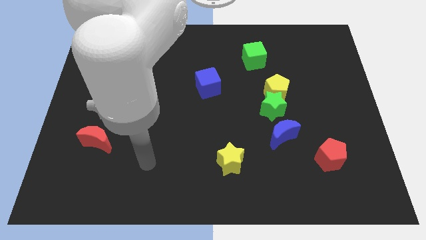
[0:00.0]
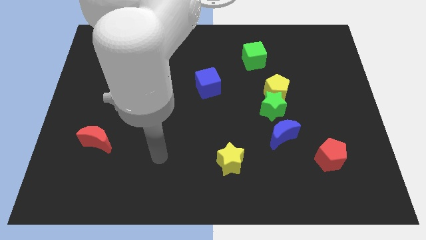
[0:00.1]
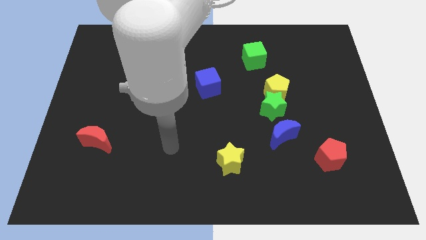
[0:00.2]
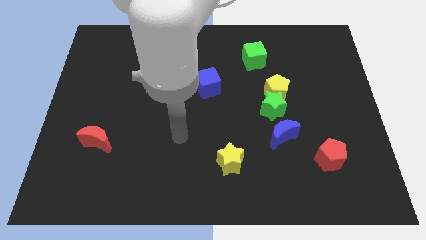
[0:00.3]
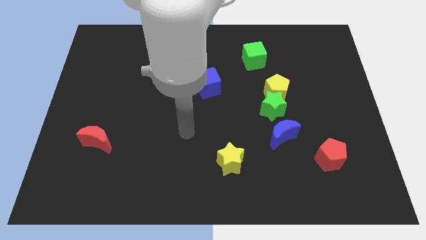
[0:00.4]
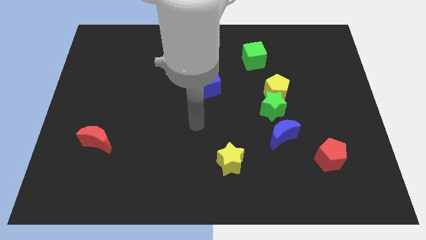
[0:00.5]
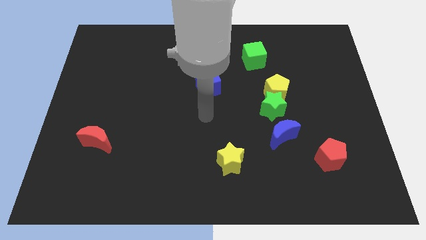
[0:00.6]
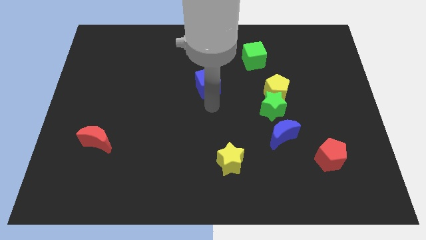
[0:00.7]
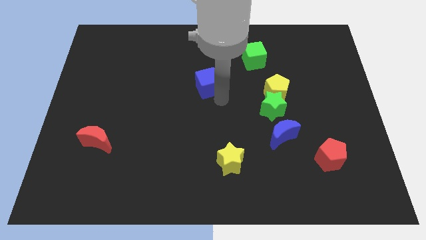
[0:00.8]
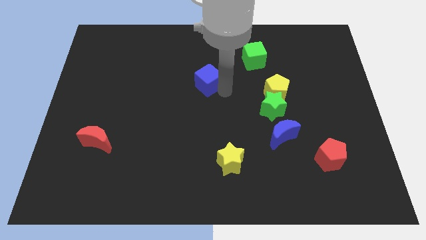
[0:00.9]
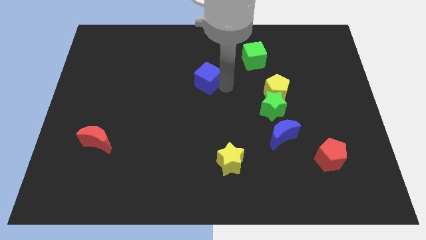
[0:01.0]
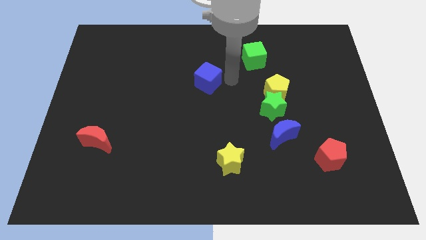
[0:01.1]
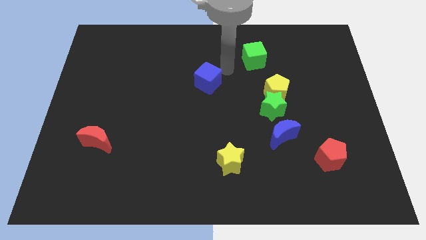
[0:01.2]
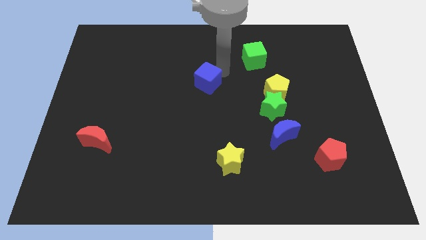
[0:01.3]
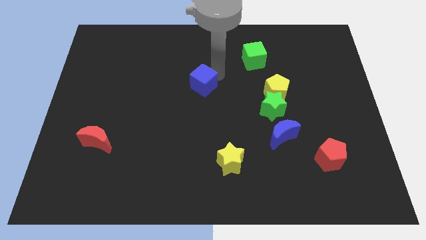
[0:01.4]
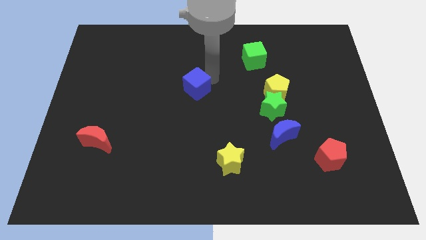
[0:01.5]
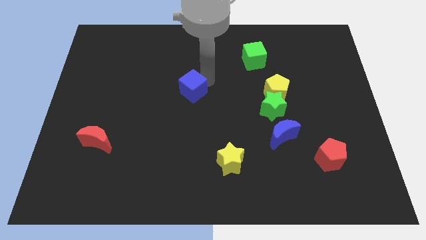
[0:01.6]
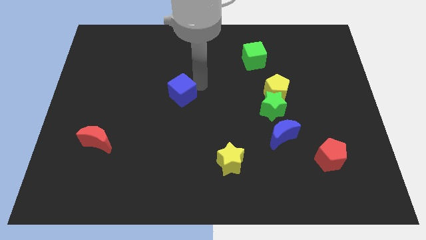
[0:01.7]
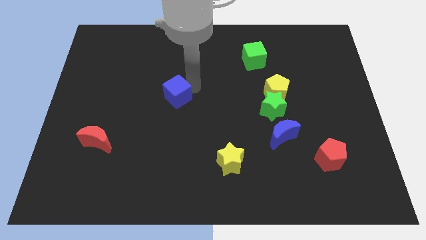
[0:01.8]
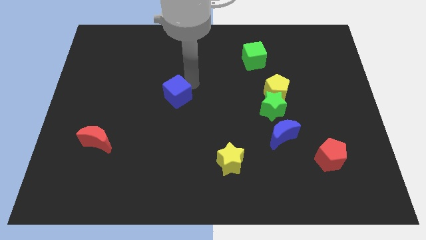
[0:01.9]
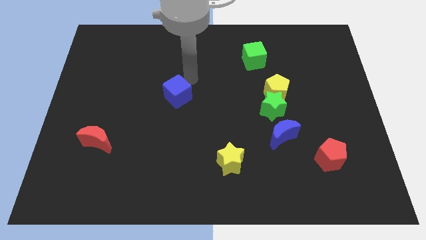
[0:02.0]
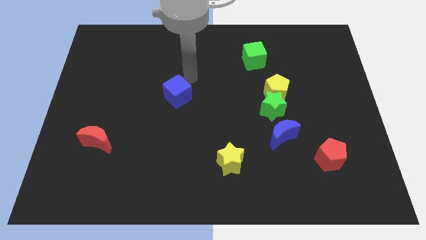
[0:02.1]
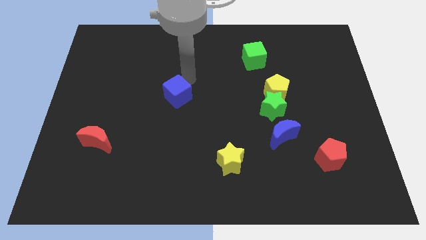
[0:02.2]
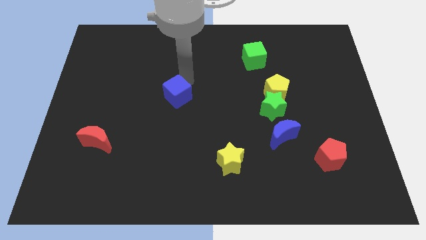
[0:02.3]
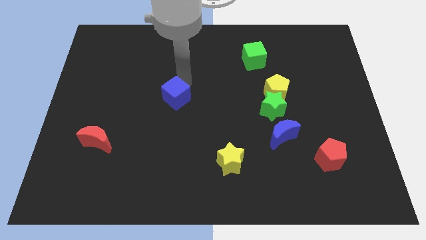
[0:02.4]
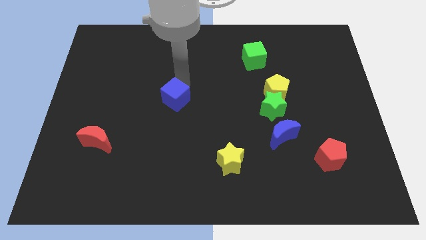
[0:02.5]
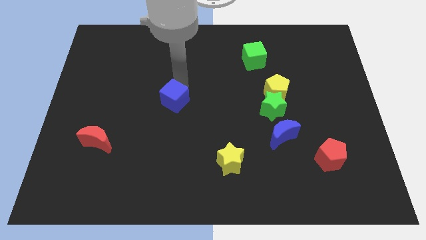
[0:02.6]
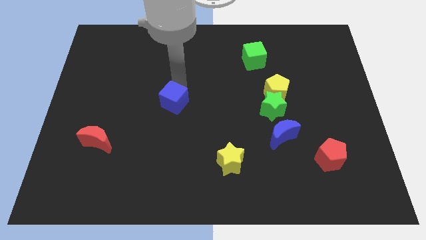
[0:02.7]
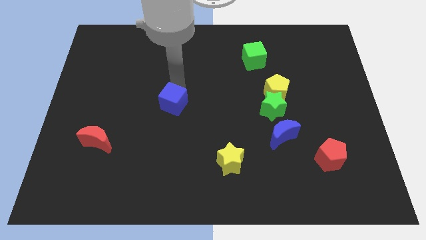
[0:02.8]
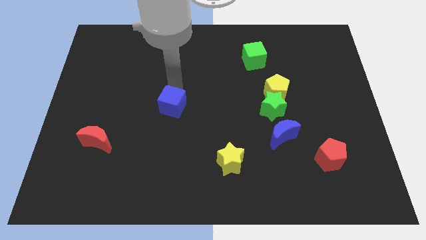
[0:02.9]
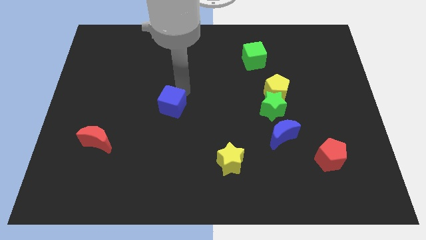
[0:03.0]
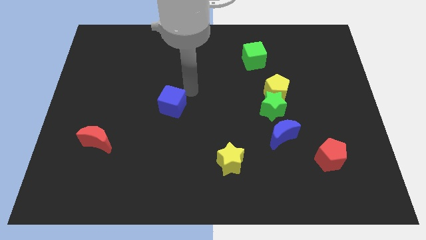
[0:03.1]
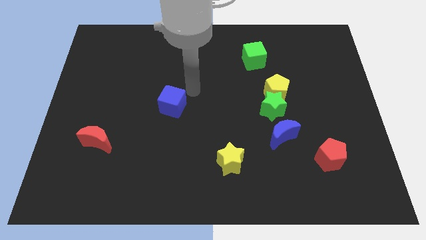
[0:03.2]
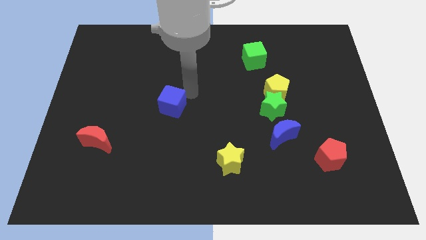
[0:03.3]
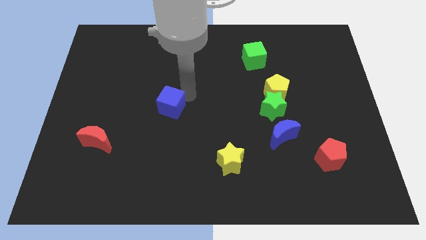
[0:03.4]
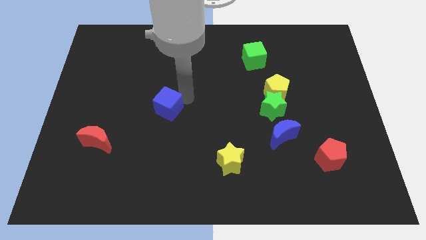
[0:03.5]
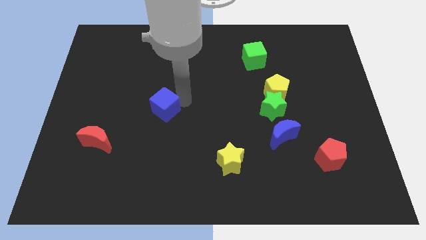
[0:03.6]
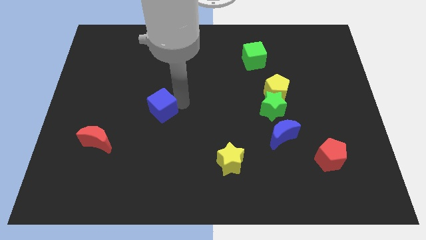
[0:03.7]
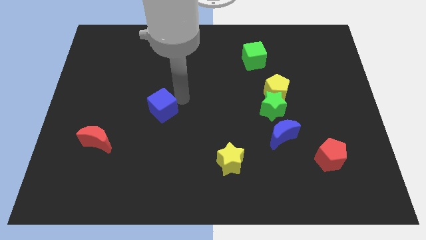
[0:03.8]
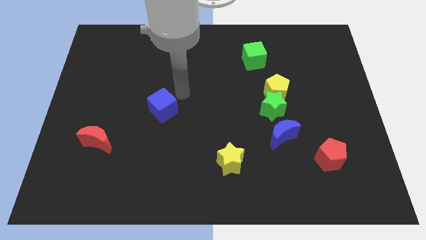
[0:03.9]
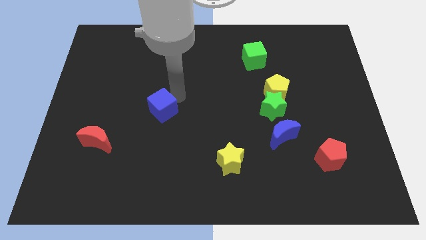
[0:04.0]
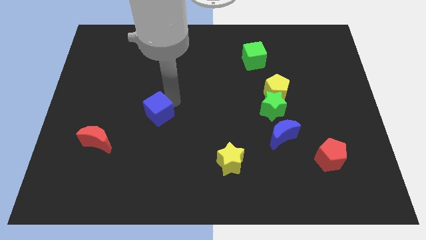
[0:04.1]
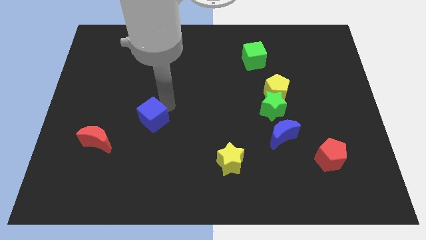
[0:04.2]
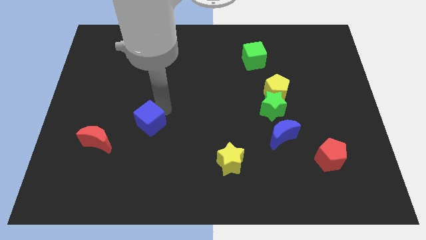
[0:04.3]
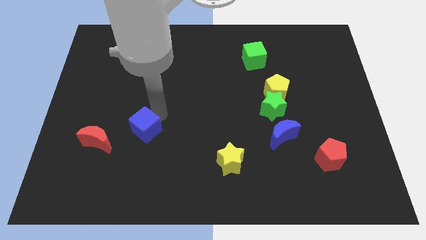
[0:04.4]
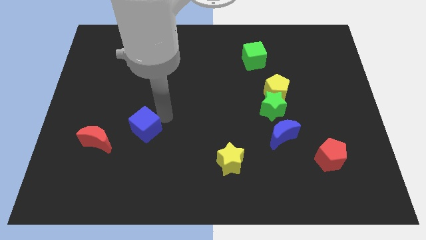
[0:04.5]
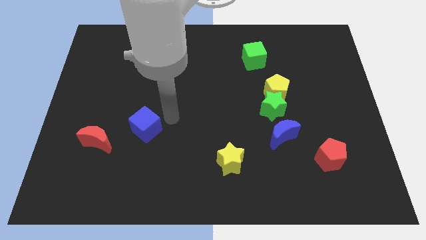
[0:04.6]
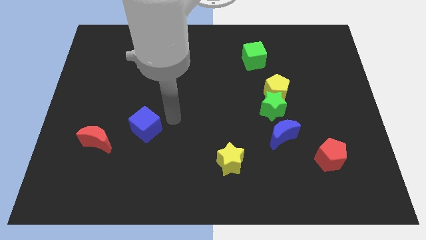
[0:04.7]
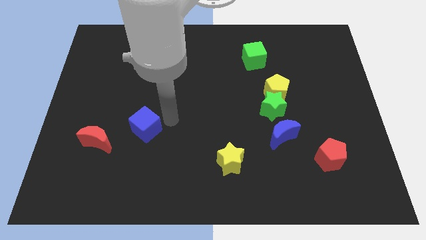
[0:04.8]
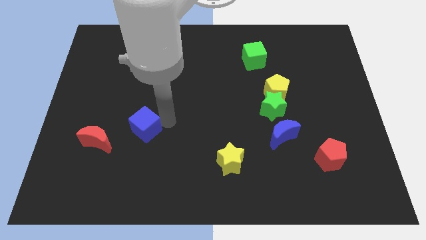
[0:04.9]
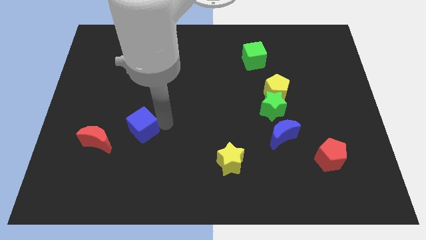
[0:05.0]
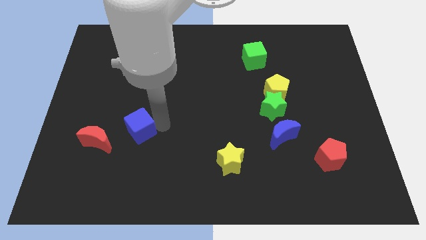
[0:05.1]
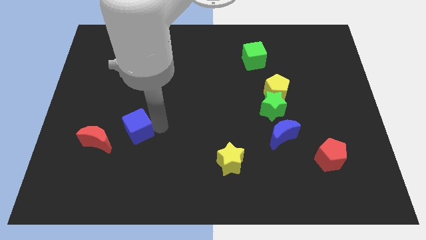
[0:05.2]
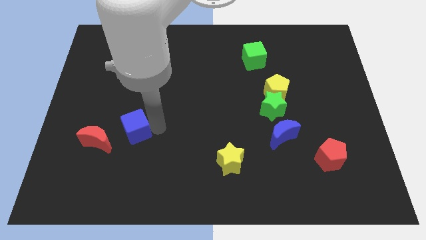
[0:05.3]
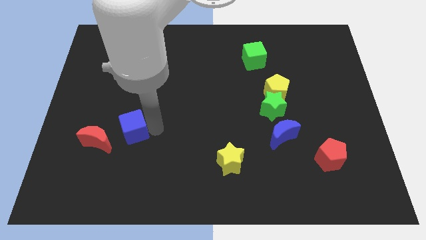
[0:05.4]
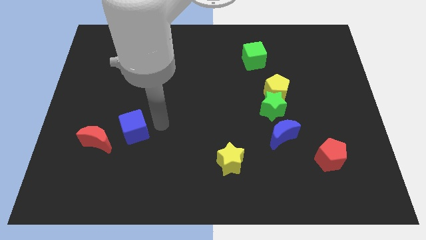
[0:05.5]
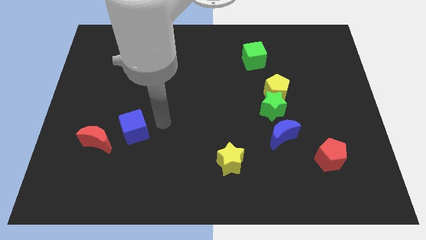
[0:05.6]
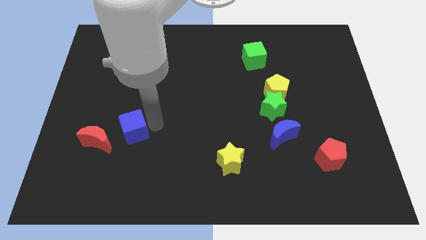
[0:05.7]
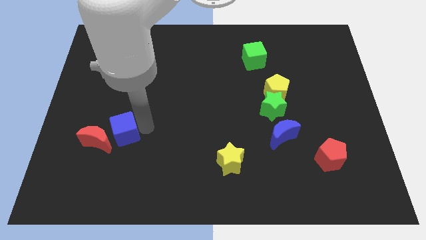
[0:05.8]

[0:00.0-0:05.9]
move the blue cube close to the red moon

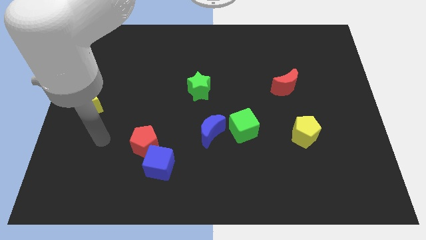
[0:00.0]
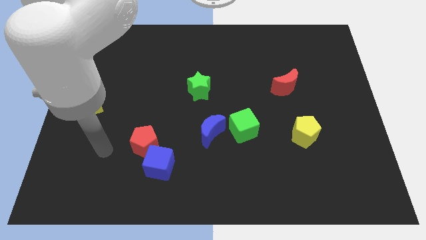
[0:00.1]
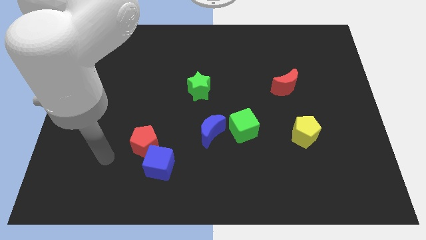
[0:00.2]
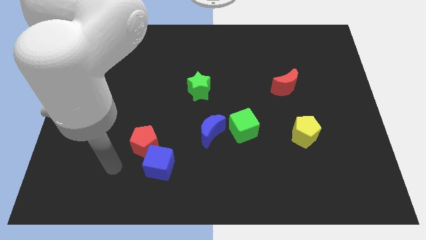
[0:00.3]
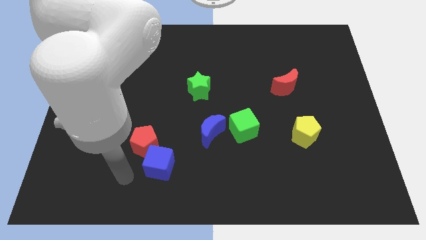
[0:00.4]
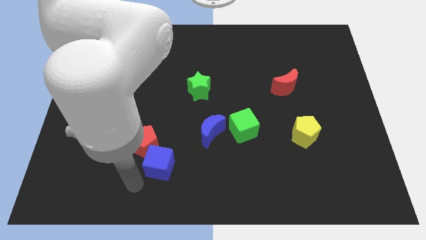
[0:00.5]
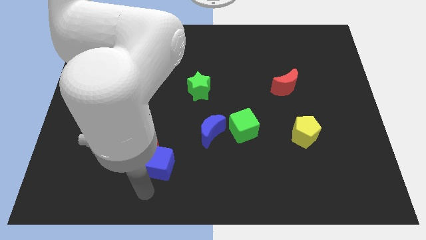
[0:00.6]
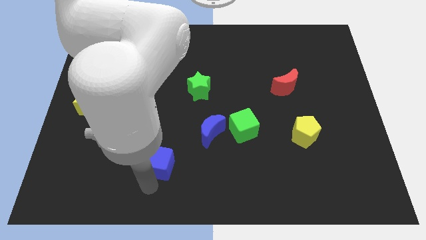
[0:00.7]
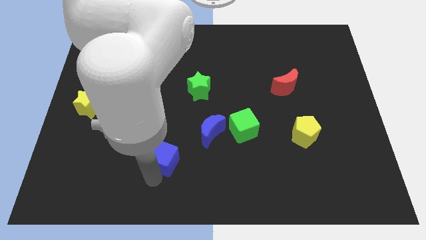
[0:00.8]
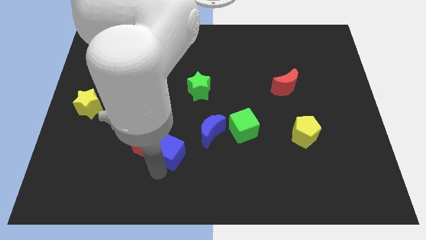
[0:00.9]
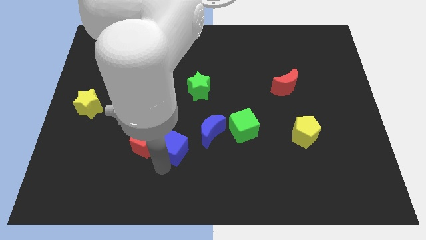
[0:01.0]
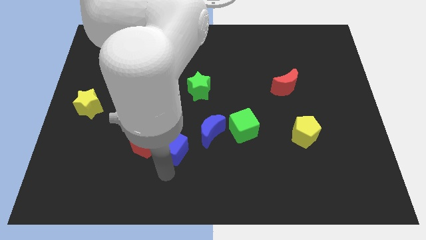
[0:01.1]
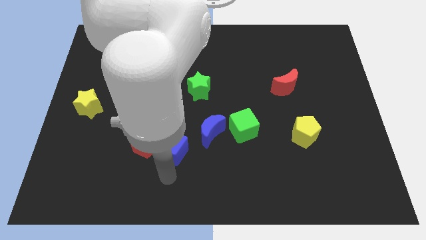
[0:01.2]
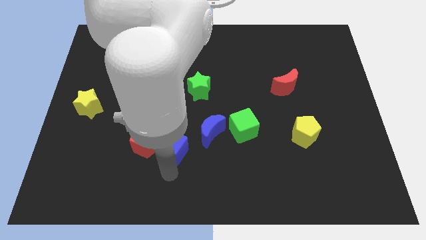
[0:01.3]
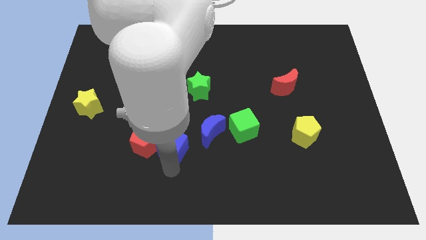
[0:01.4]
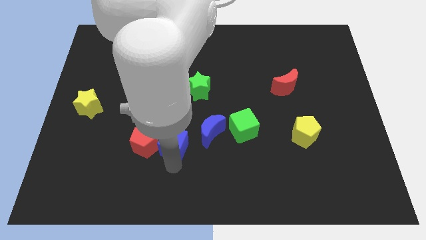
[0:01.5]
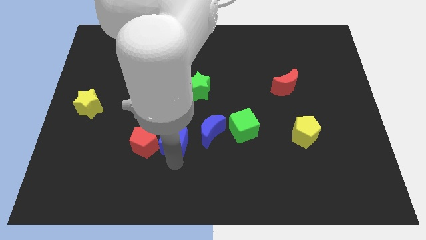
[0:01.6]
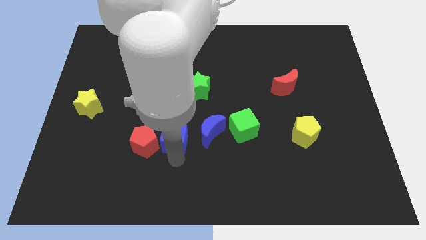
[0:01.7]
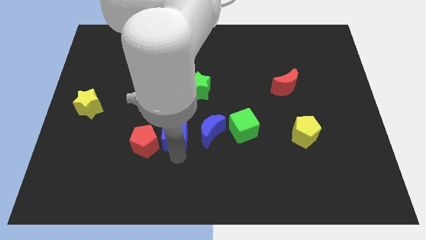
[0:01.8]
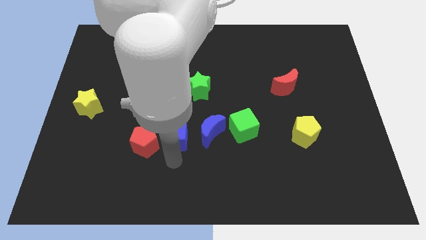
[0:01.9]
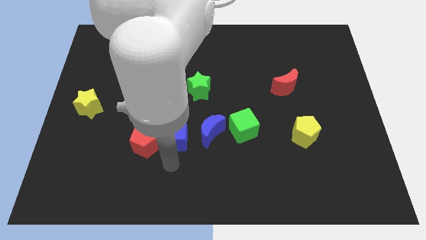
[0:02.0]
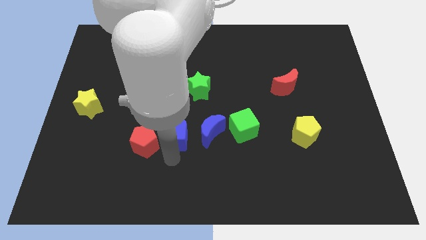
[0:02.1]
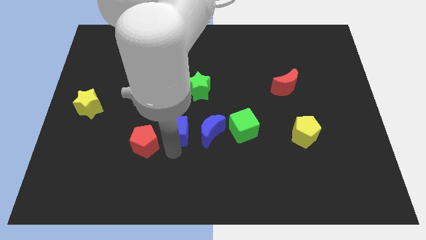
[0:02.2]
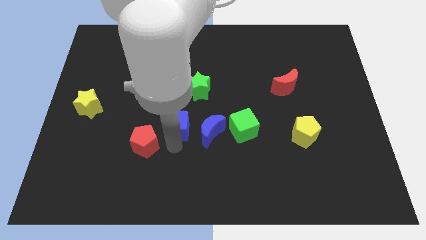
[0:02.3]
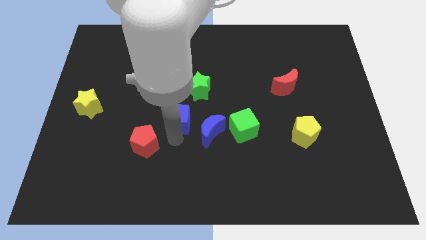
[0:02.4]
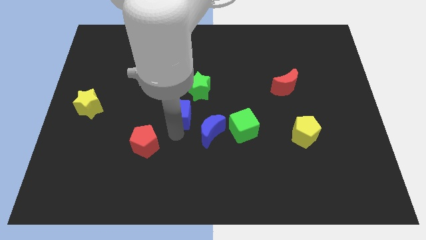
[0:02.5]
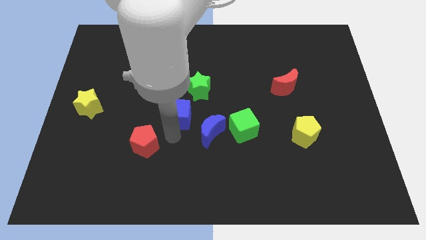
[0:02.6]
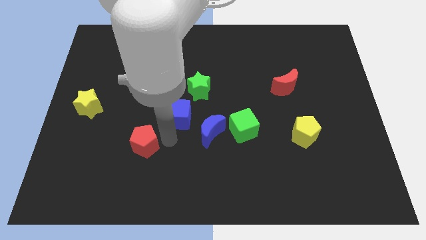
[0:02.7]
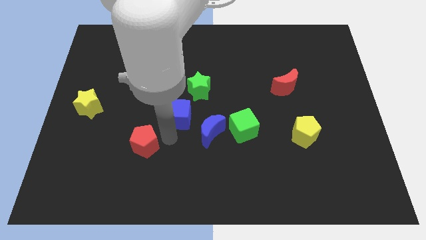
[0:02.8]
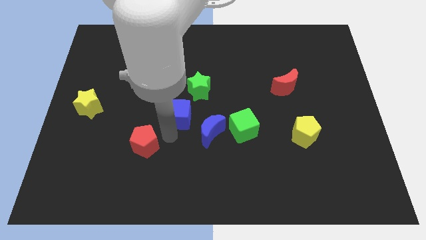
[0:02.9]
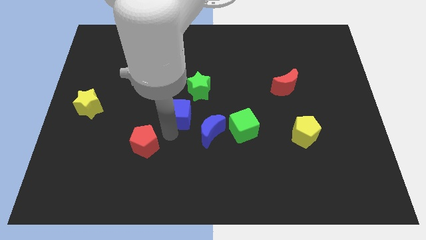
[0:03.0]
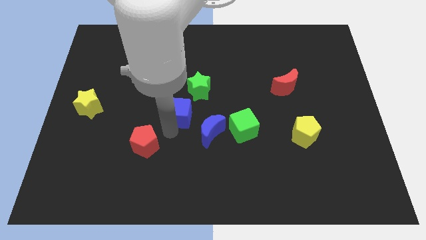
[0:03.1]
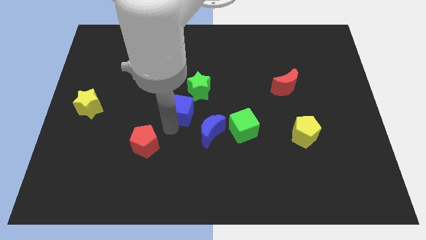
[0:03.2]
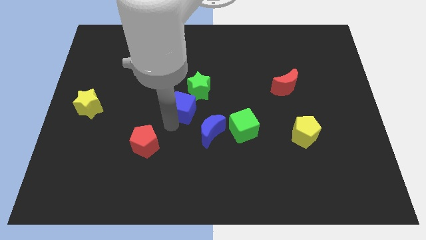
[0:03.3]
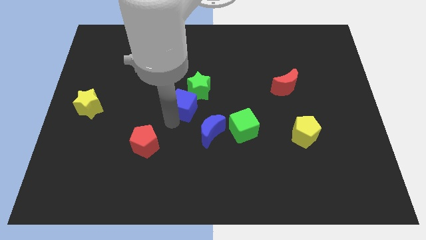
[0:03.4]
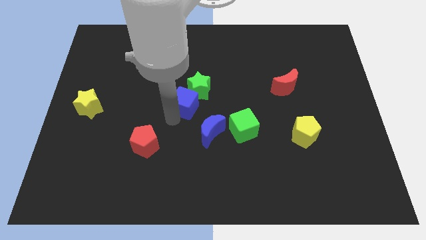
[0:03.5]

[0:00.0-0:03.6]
push the blue cube towards the green star
